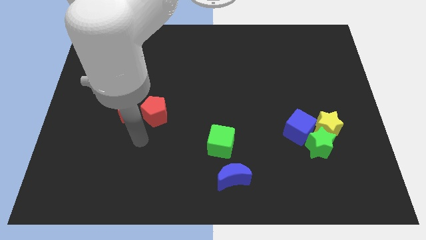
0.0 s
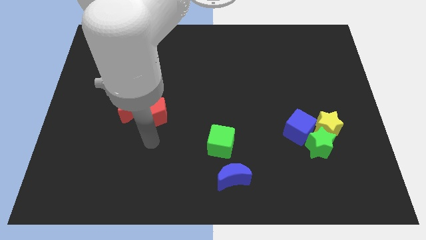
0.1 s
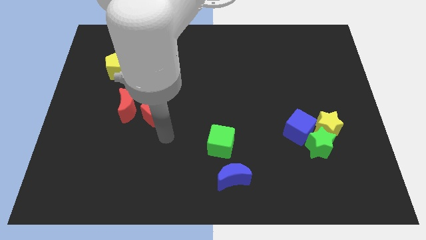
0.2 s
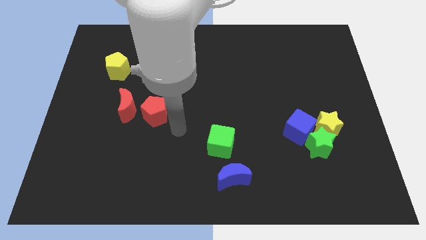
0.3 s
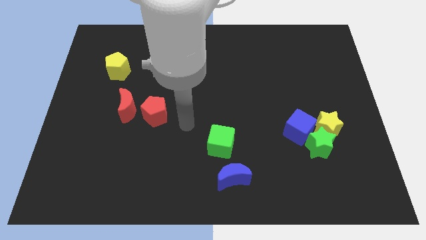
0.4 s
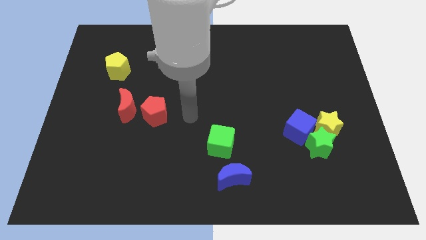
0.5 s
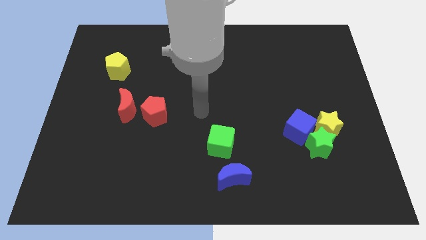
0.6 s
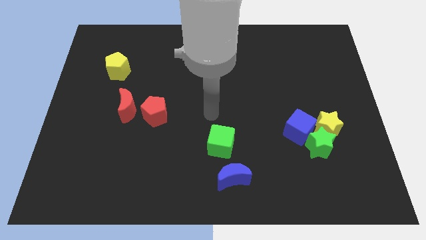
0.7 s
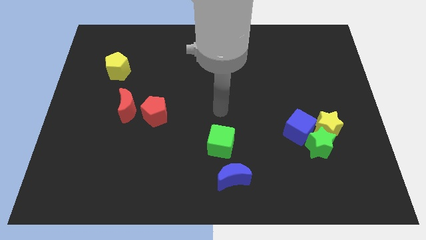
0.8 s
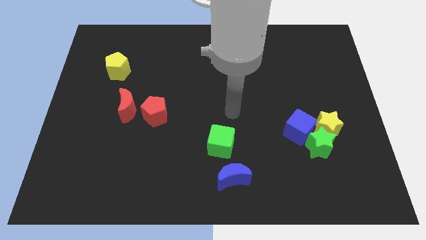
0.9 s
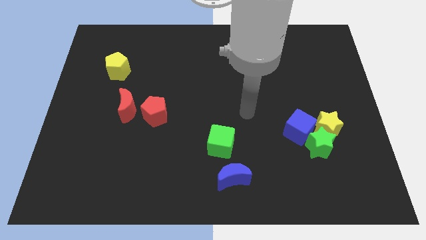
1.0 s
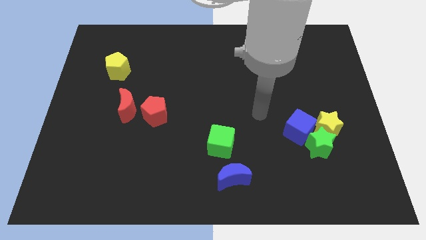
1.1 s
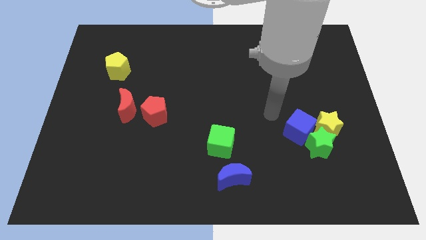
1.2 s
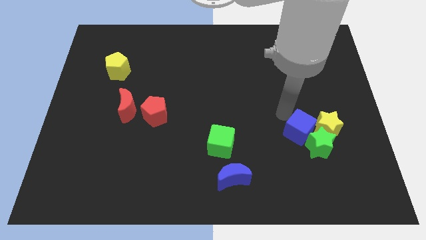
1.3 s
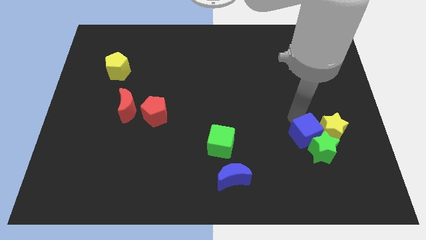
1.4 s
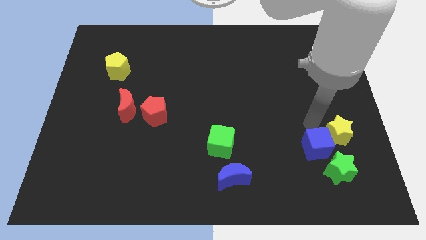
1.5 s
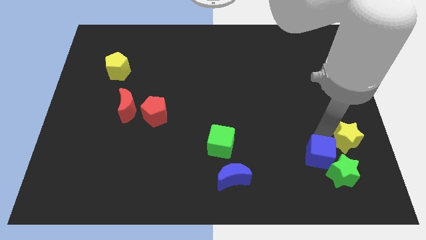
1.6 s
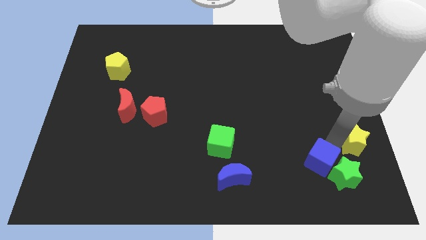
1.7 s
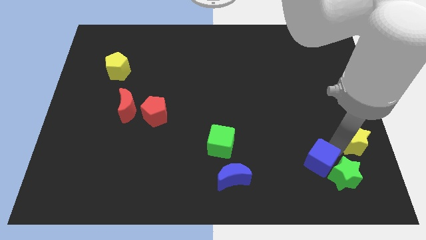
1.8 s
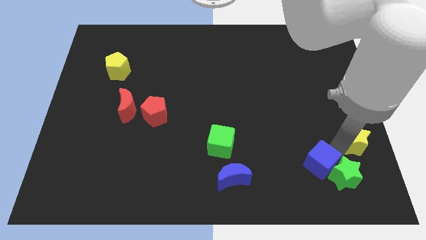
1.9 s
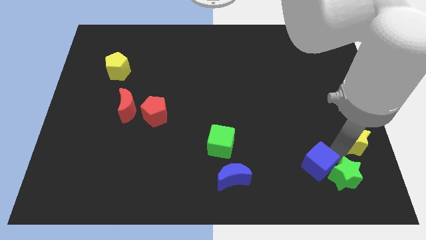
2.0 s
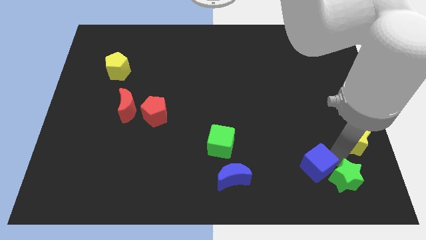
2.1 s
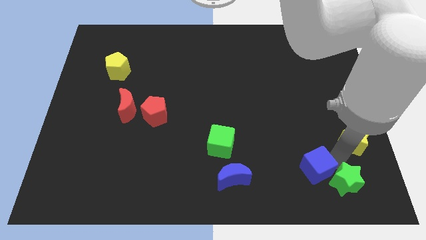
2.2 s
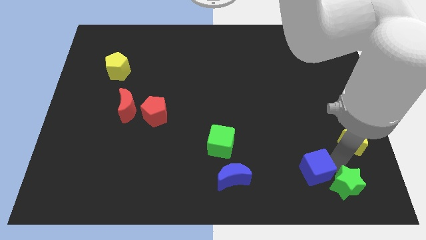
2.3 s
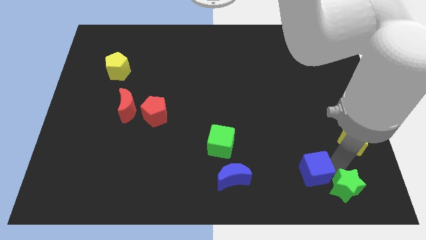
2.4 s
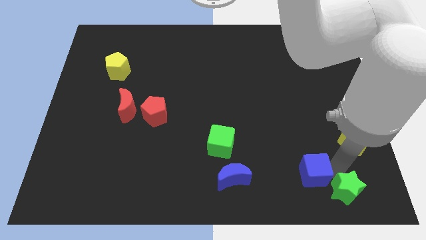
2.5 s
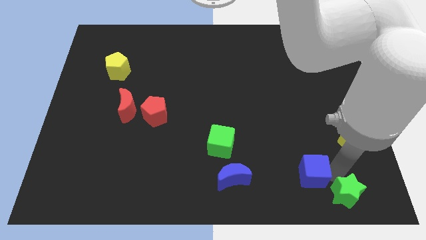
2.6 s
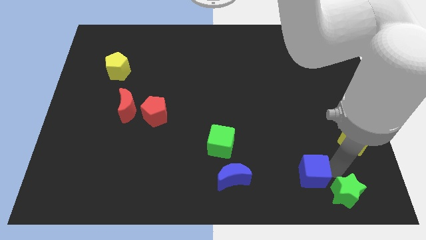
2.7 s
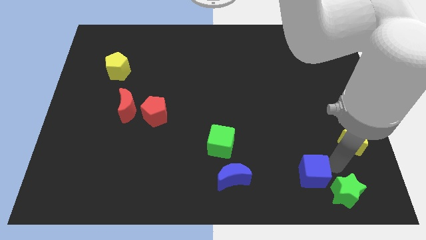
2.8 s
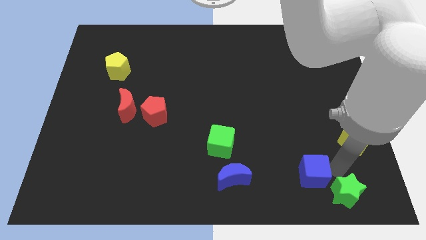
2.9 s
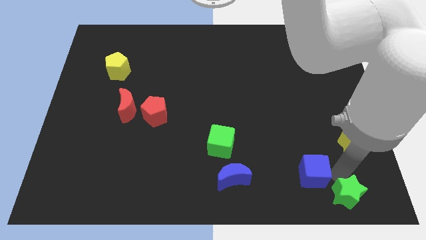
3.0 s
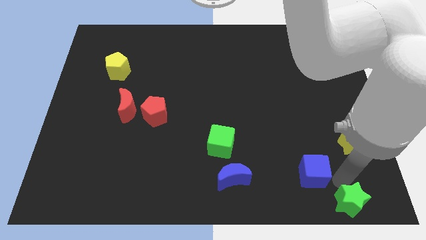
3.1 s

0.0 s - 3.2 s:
separate the green star from the yellow star and blue cube

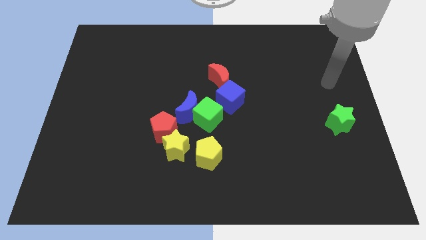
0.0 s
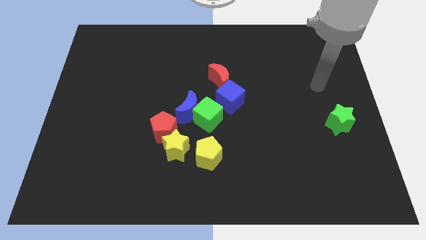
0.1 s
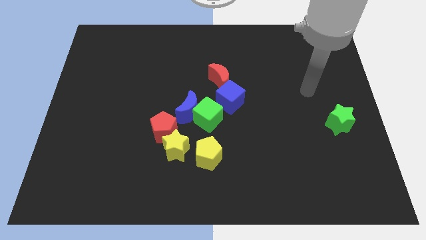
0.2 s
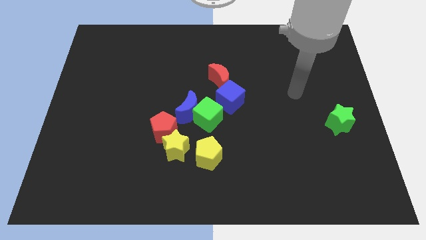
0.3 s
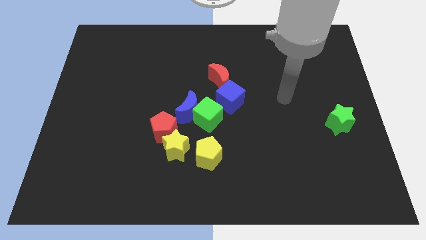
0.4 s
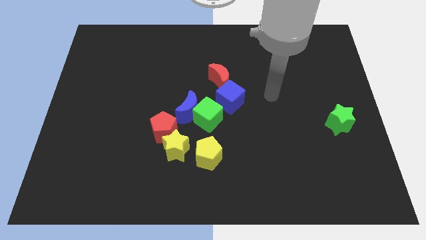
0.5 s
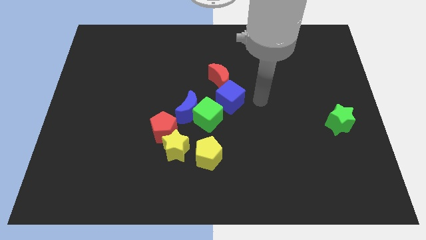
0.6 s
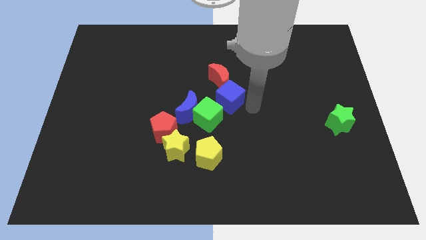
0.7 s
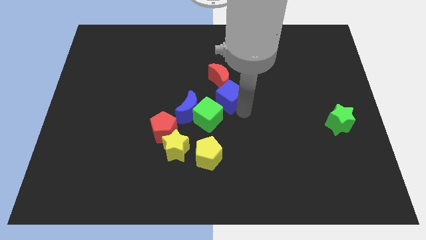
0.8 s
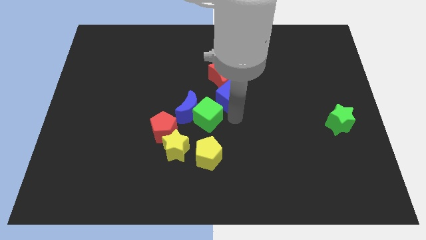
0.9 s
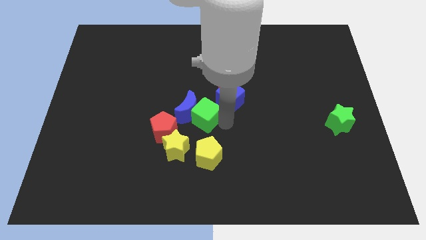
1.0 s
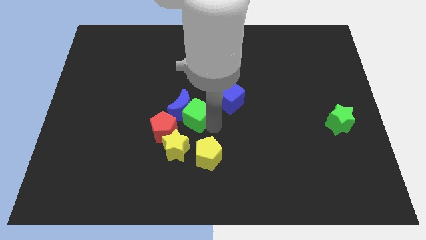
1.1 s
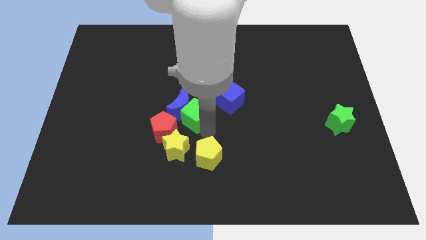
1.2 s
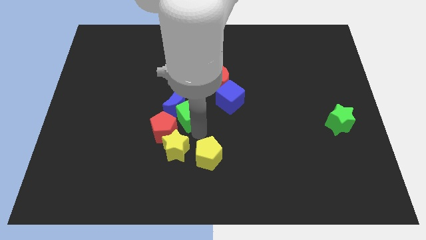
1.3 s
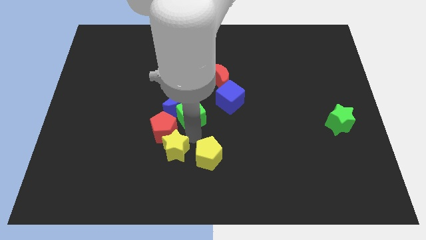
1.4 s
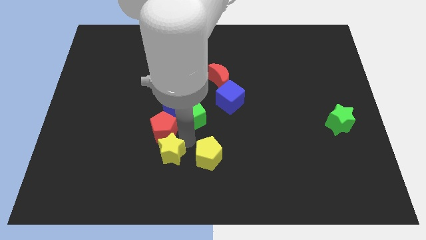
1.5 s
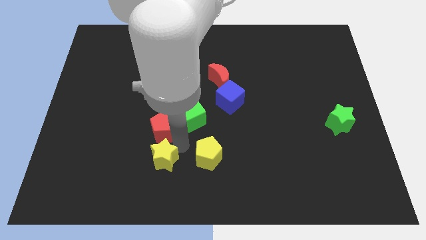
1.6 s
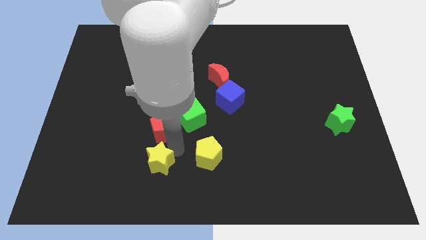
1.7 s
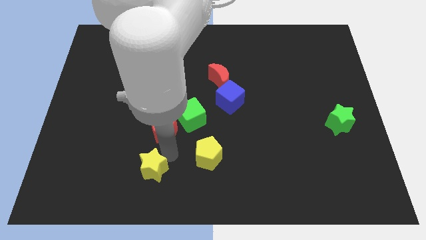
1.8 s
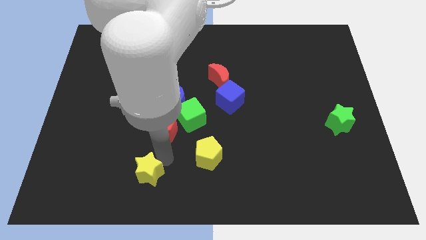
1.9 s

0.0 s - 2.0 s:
pull the yellow star apart from the red pentagon and yellow pentagon

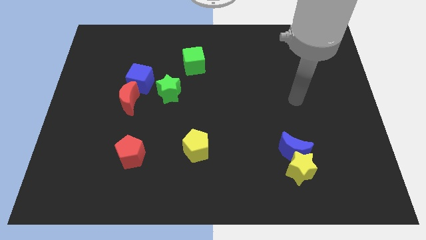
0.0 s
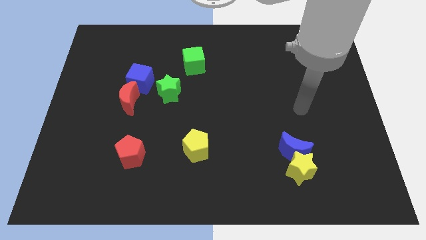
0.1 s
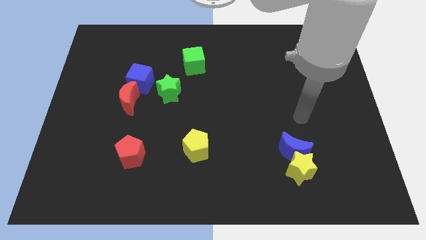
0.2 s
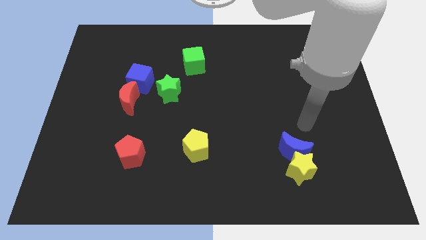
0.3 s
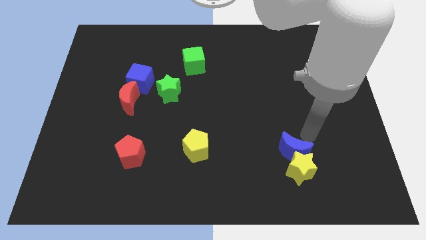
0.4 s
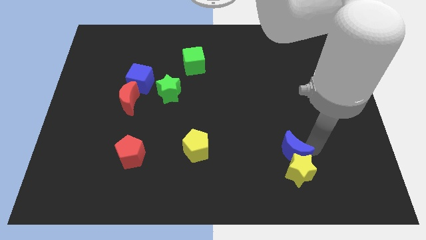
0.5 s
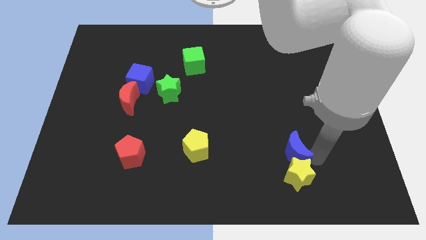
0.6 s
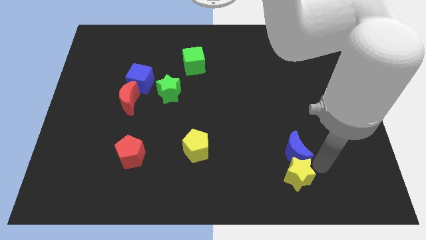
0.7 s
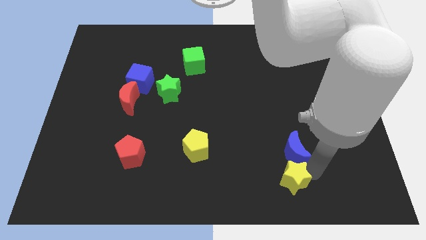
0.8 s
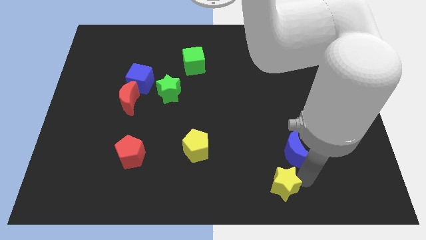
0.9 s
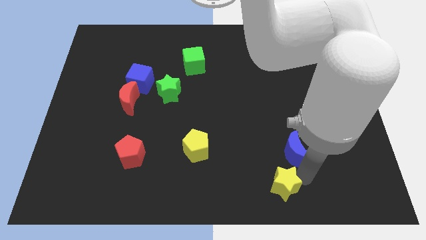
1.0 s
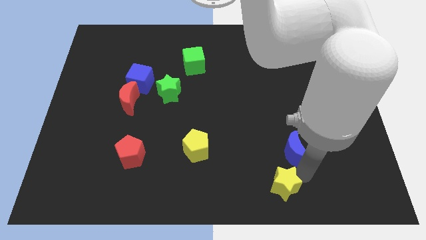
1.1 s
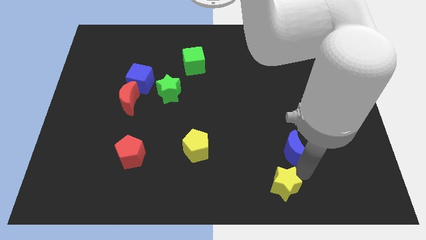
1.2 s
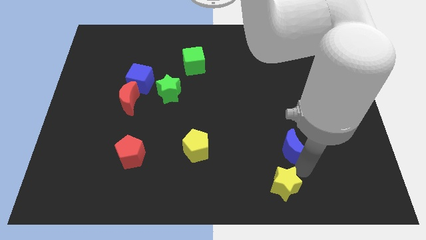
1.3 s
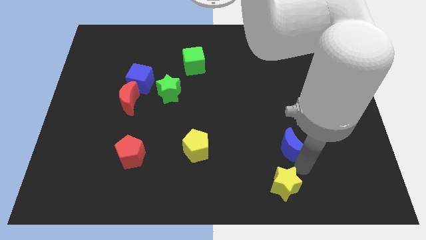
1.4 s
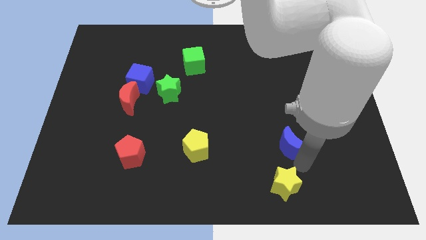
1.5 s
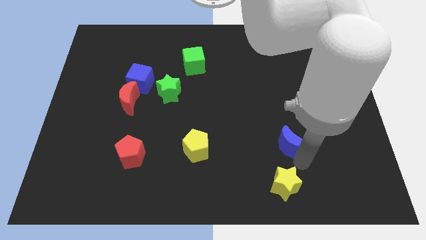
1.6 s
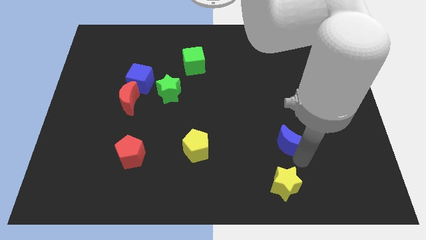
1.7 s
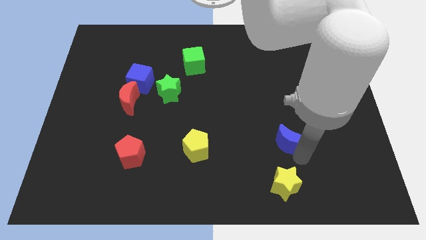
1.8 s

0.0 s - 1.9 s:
pull the blue moon apart from the yellow star

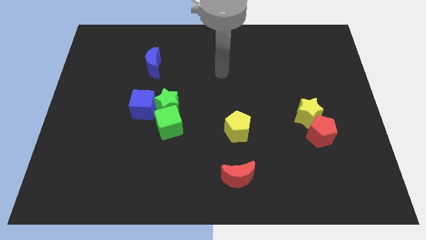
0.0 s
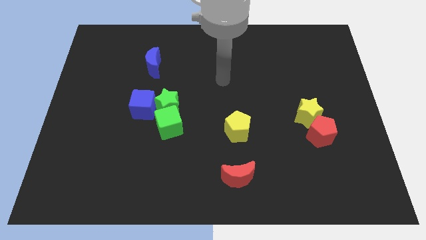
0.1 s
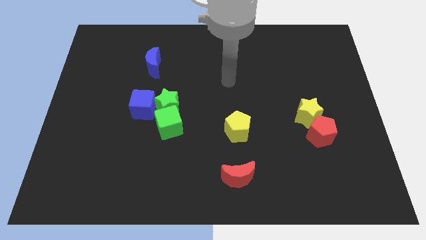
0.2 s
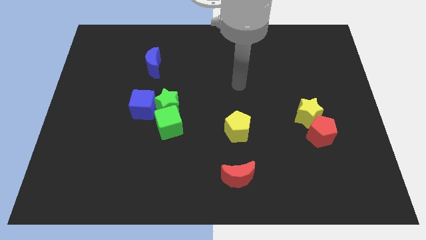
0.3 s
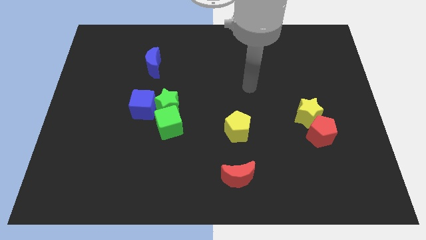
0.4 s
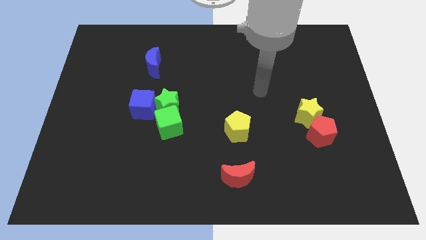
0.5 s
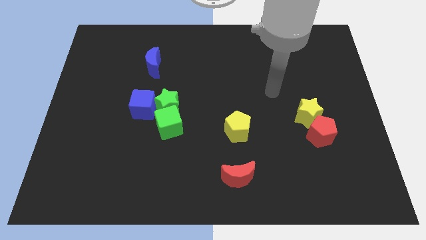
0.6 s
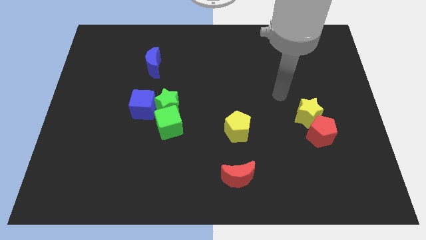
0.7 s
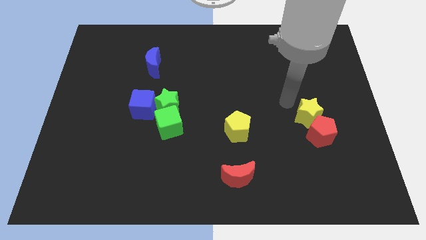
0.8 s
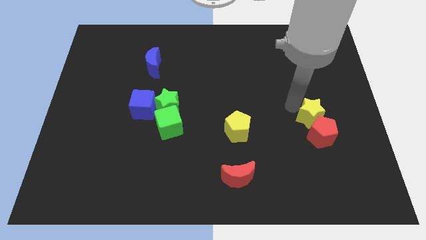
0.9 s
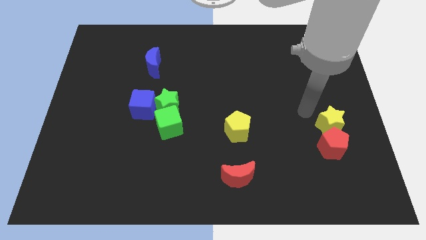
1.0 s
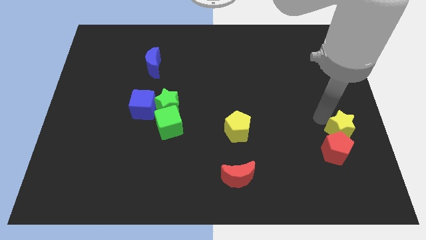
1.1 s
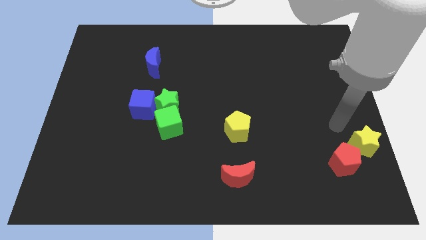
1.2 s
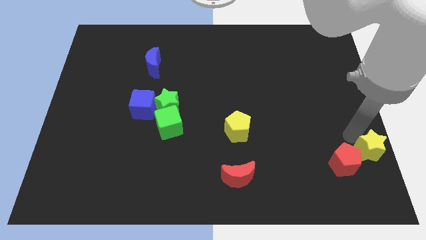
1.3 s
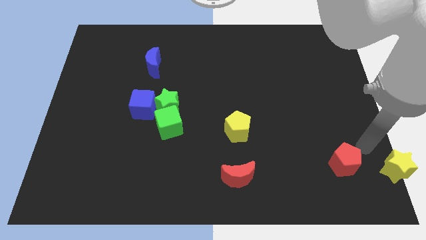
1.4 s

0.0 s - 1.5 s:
pull the red pentagon apart from the yellow star

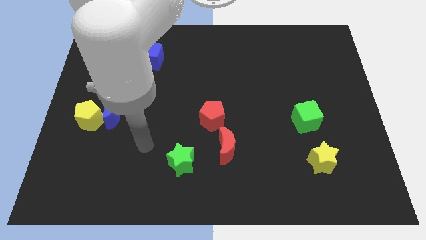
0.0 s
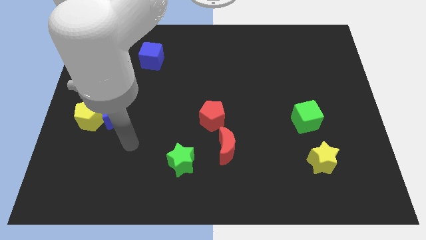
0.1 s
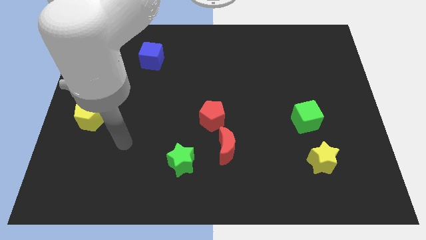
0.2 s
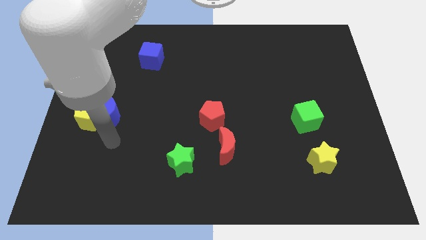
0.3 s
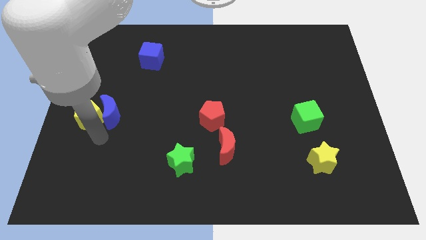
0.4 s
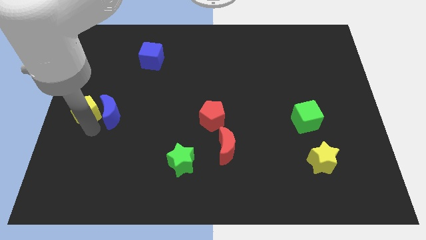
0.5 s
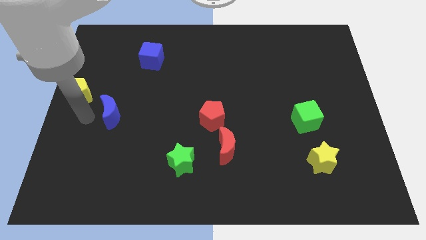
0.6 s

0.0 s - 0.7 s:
separate the blue moon from the yellow pentagon
